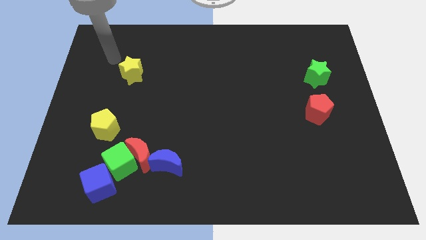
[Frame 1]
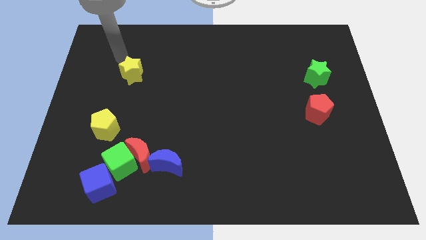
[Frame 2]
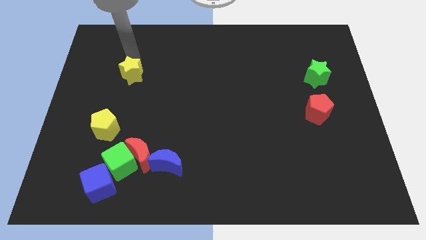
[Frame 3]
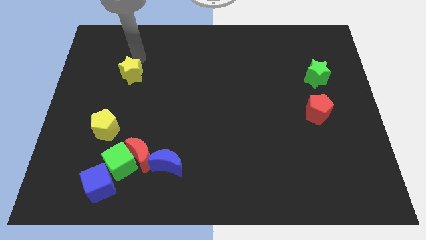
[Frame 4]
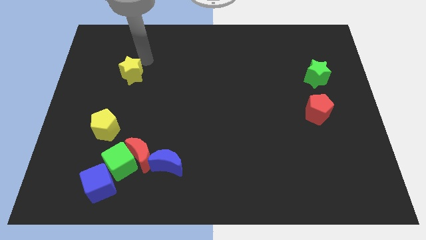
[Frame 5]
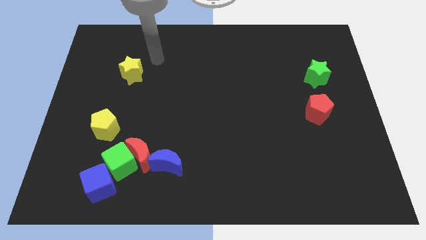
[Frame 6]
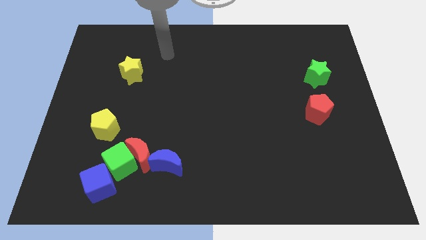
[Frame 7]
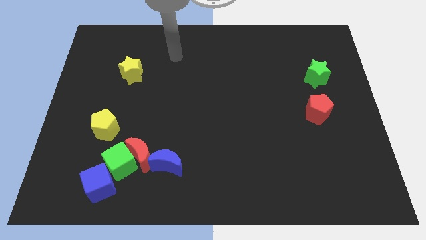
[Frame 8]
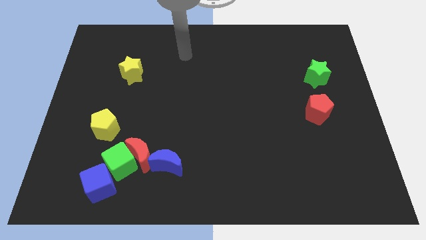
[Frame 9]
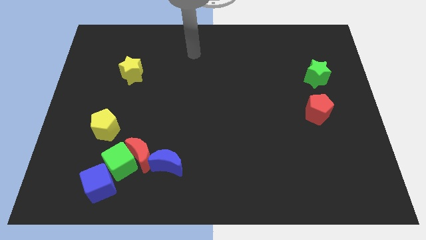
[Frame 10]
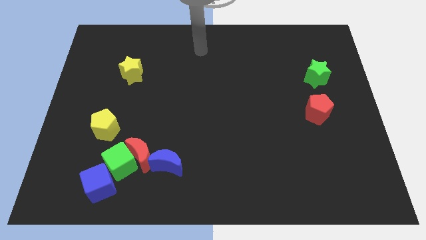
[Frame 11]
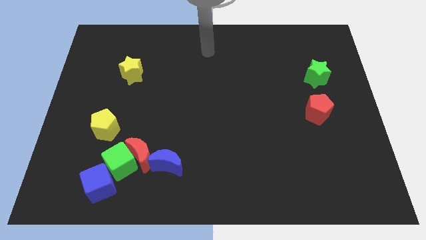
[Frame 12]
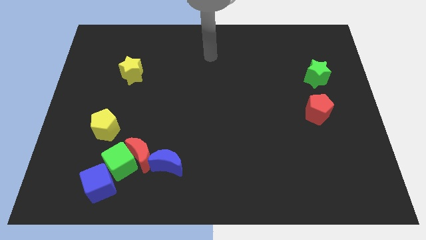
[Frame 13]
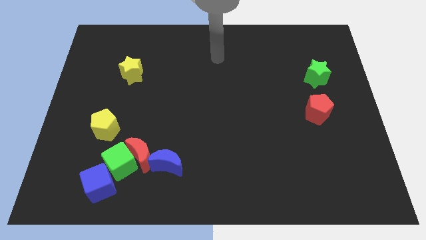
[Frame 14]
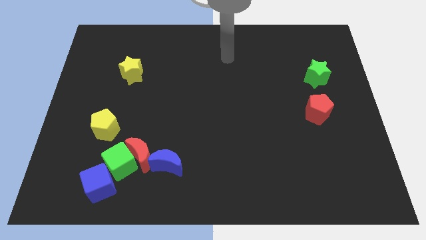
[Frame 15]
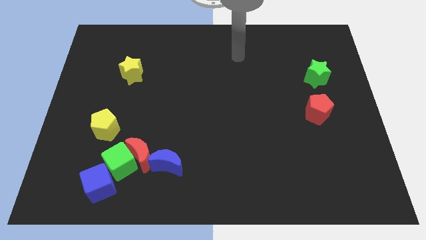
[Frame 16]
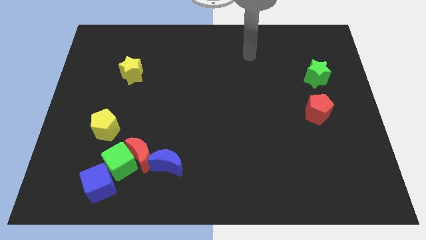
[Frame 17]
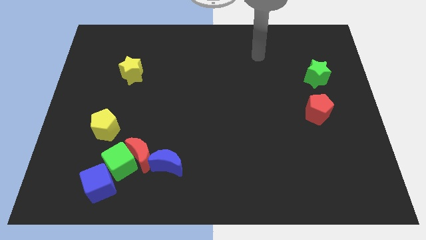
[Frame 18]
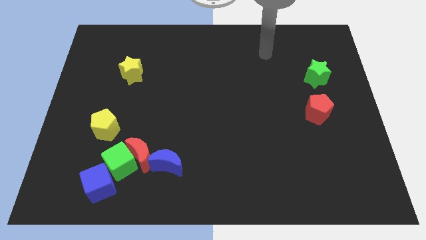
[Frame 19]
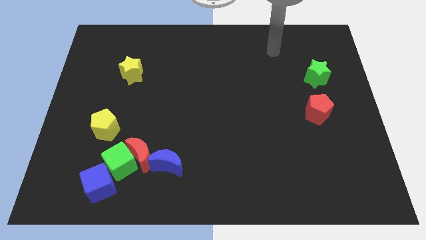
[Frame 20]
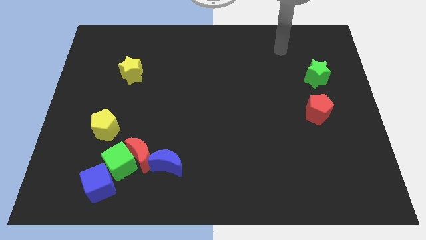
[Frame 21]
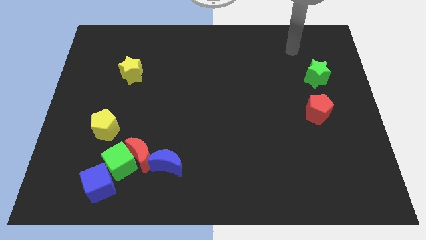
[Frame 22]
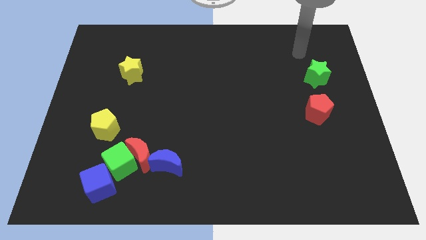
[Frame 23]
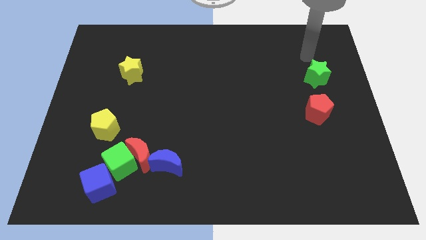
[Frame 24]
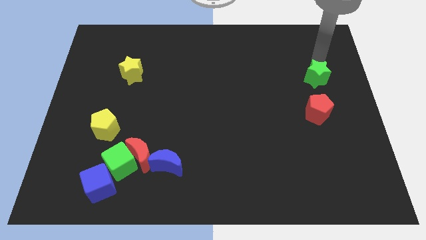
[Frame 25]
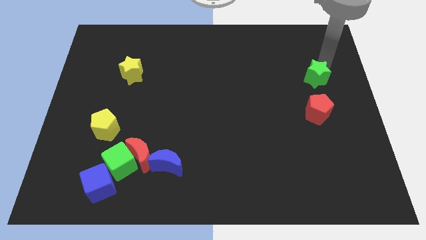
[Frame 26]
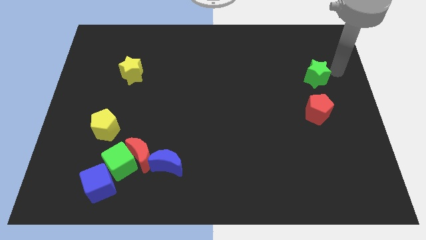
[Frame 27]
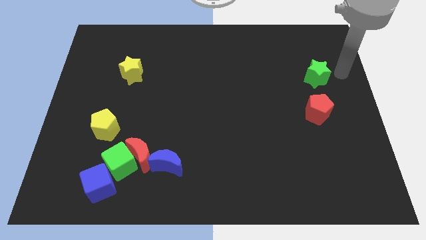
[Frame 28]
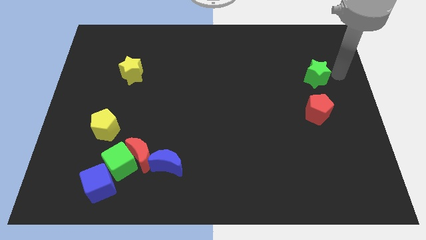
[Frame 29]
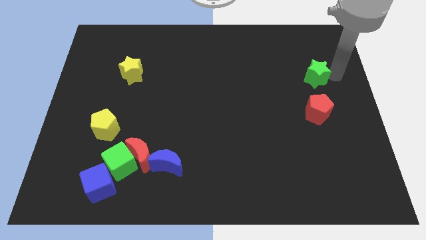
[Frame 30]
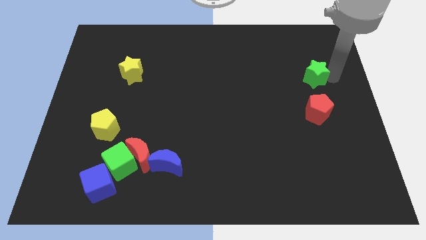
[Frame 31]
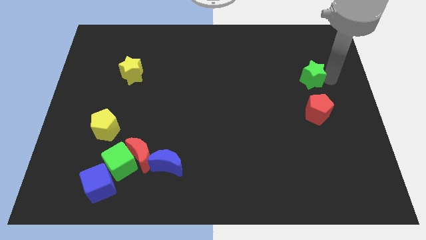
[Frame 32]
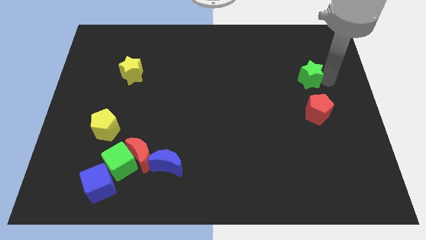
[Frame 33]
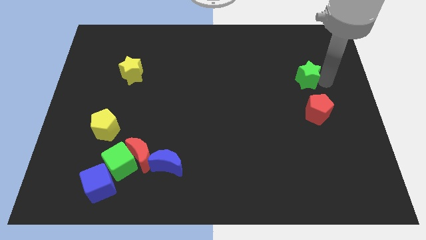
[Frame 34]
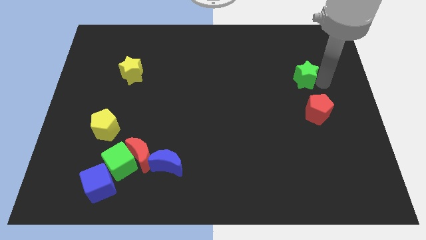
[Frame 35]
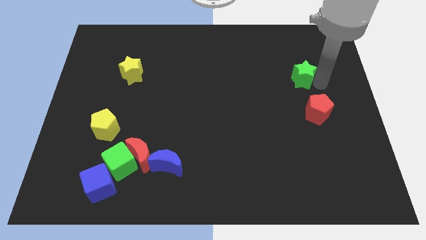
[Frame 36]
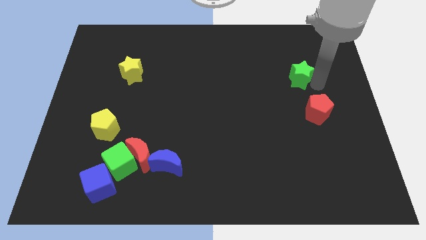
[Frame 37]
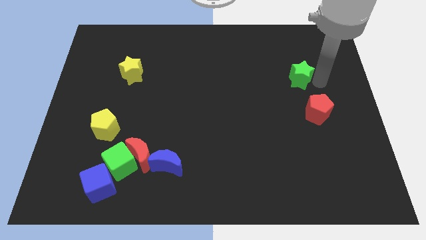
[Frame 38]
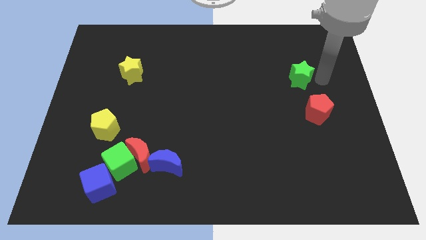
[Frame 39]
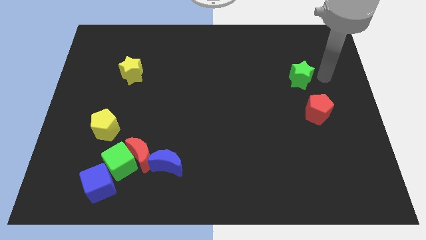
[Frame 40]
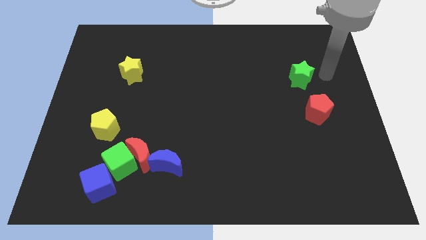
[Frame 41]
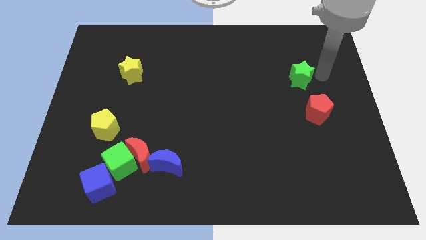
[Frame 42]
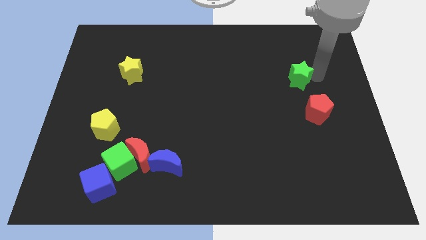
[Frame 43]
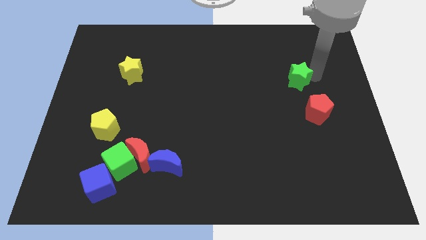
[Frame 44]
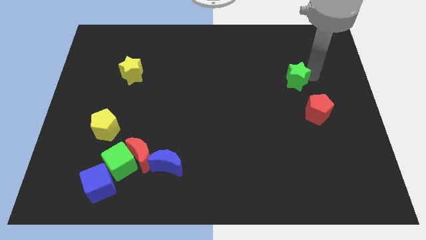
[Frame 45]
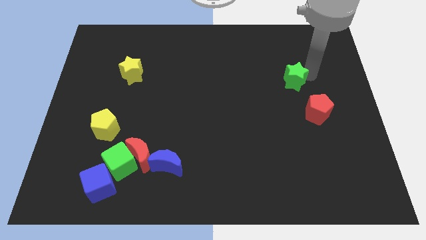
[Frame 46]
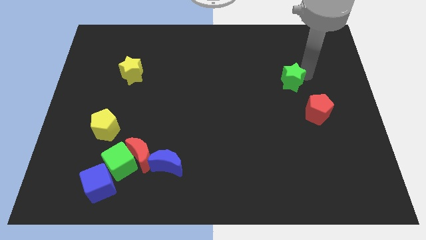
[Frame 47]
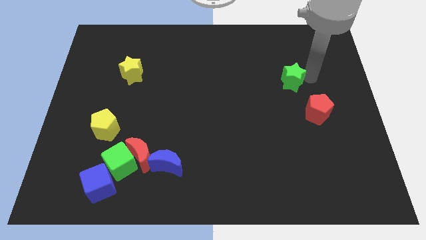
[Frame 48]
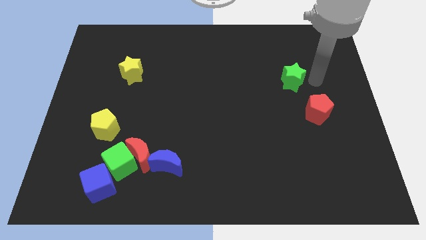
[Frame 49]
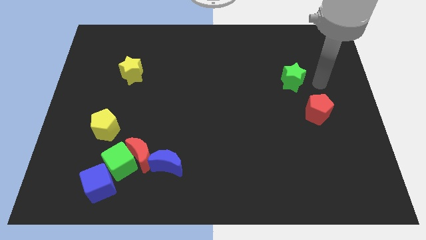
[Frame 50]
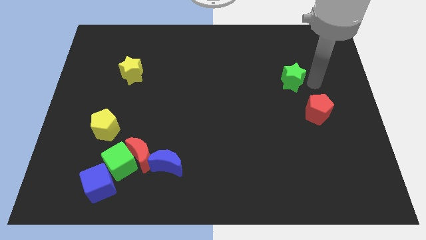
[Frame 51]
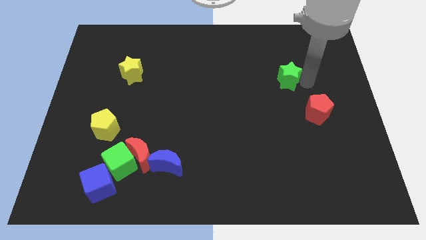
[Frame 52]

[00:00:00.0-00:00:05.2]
slightly push the green star to the left

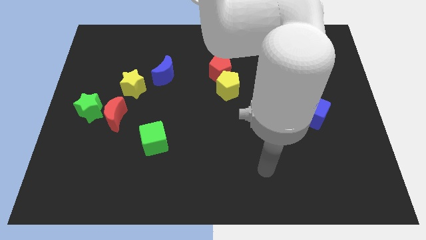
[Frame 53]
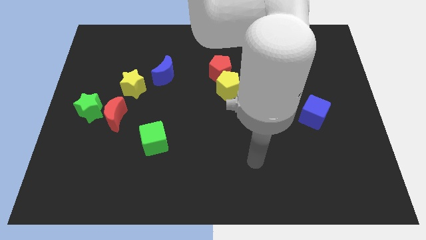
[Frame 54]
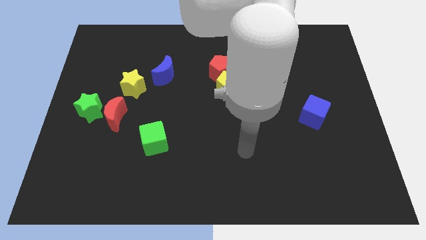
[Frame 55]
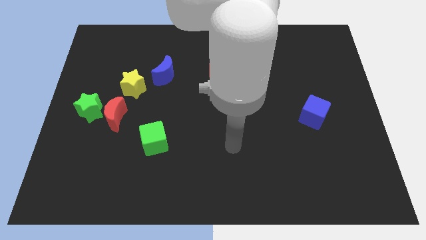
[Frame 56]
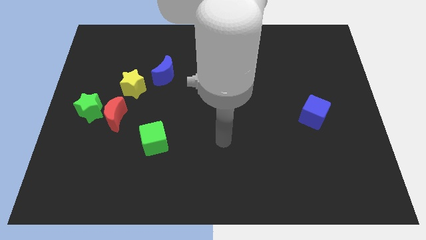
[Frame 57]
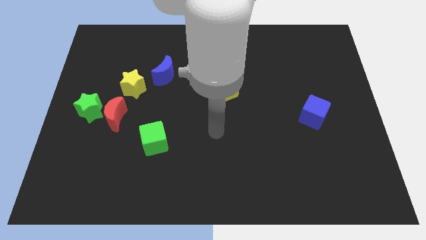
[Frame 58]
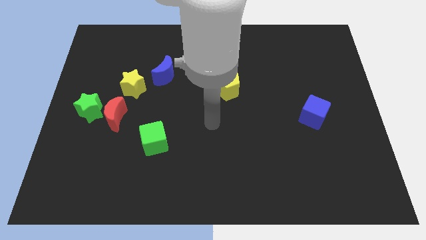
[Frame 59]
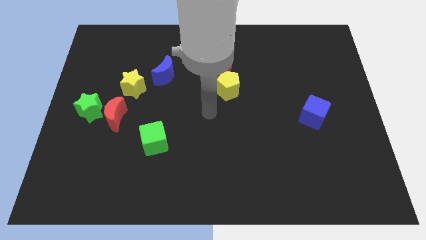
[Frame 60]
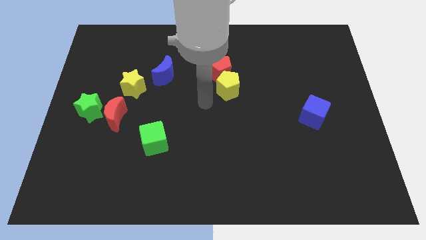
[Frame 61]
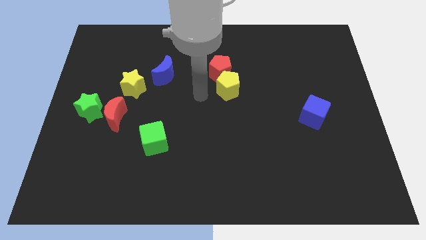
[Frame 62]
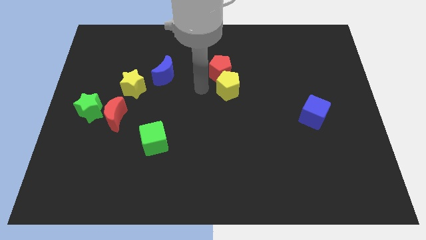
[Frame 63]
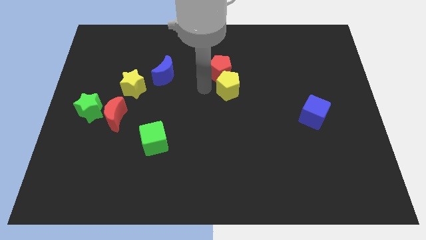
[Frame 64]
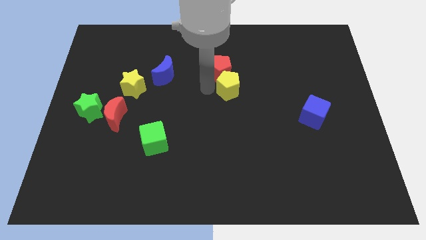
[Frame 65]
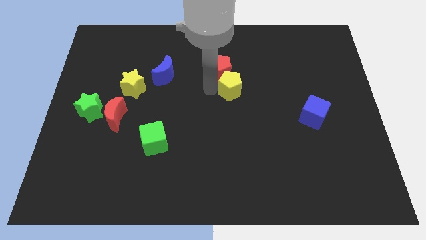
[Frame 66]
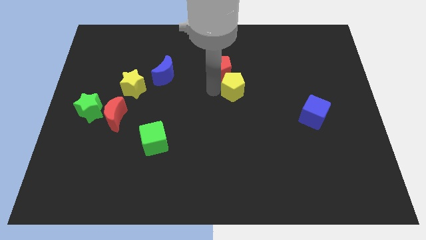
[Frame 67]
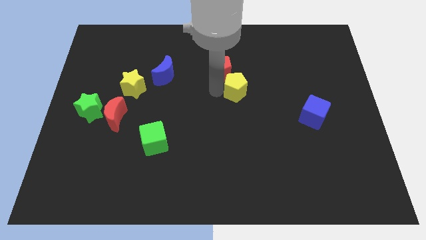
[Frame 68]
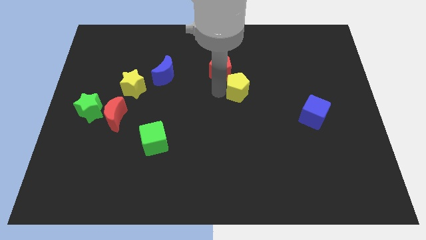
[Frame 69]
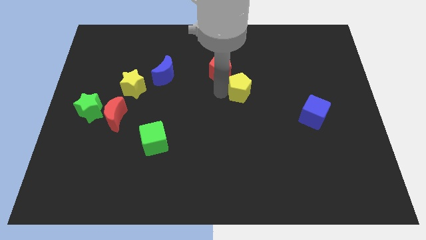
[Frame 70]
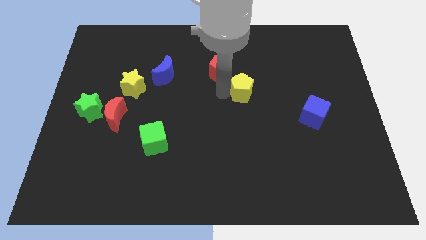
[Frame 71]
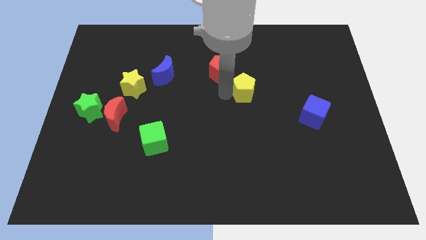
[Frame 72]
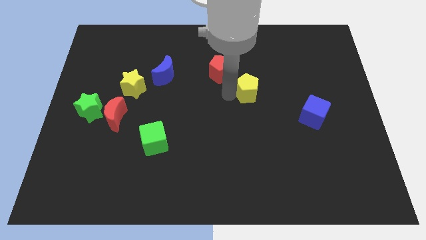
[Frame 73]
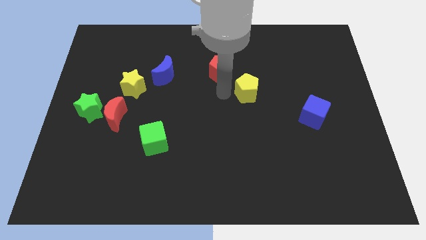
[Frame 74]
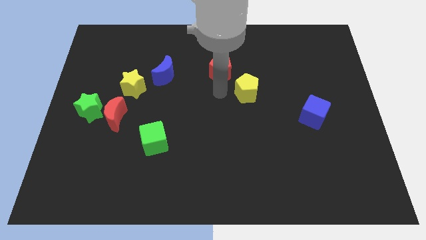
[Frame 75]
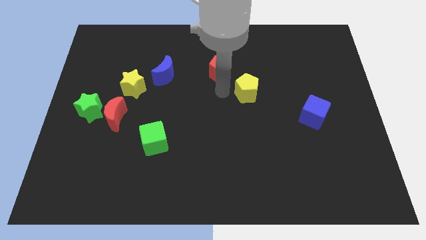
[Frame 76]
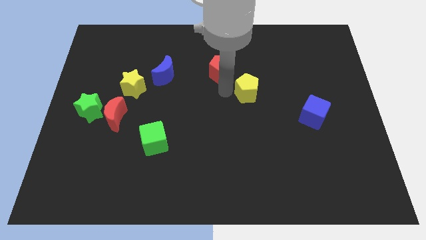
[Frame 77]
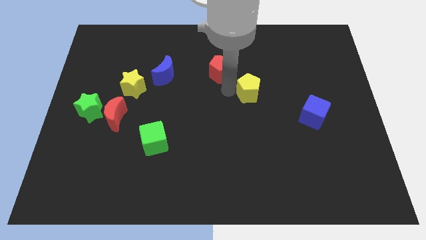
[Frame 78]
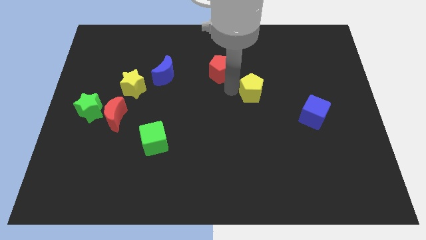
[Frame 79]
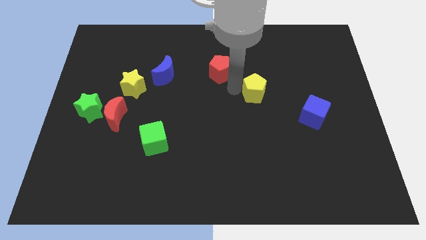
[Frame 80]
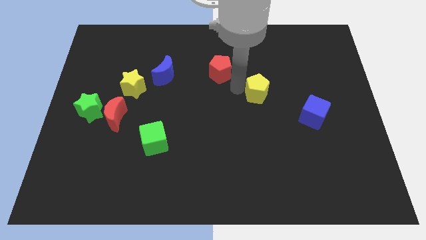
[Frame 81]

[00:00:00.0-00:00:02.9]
slightly slide the yellow pentagon right

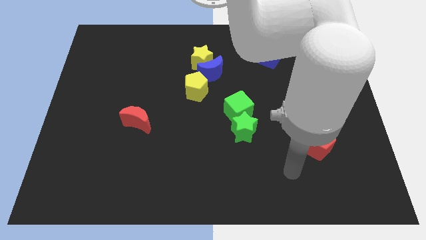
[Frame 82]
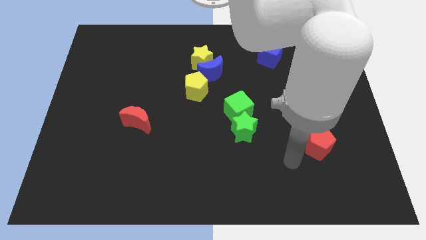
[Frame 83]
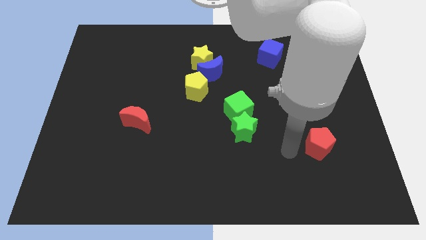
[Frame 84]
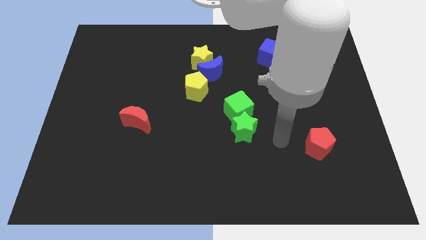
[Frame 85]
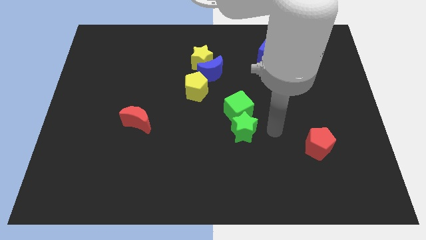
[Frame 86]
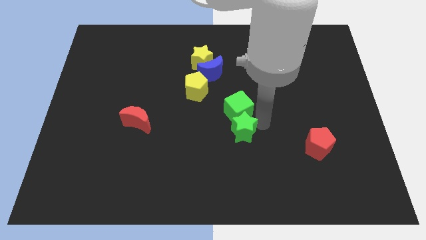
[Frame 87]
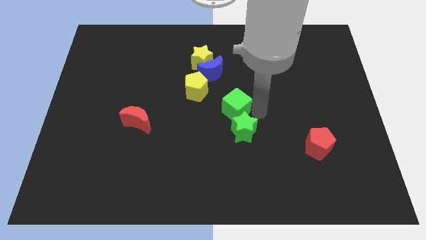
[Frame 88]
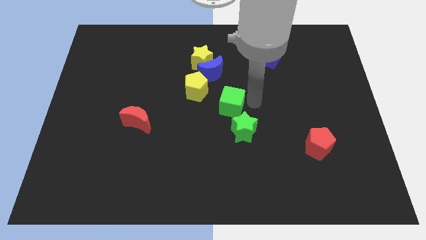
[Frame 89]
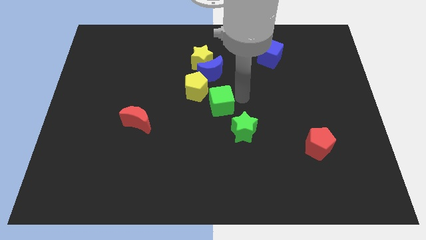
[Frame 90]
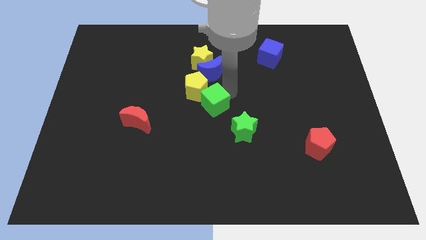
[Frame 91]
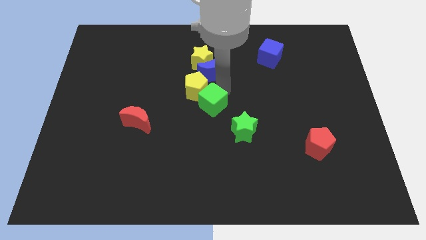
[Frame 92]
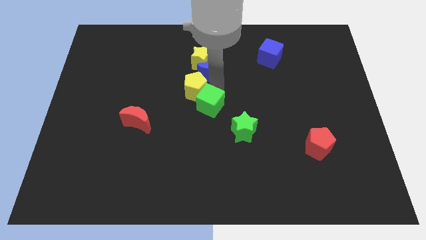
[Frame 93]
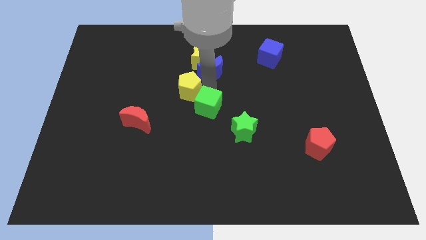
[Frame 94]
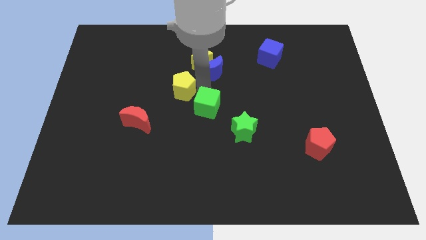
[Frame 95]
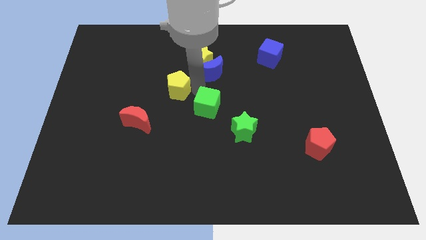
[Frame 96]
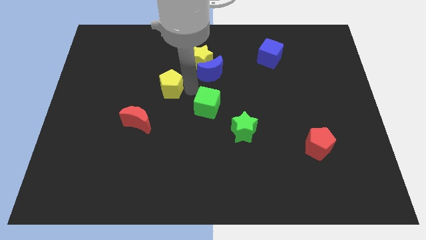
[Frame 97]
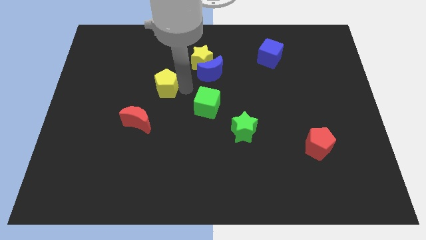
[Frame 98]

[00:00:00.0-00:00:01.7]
push the yellow pentagon to the left slightly
